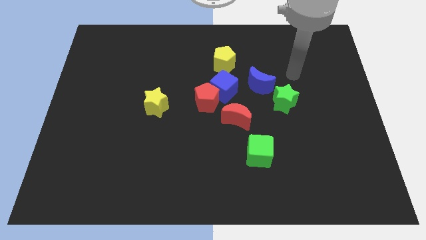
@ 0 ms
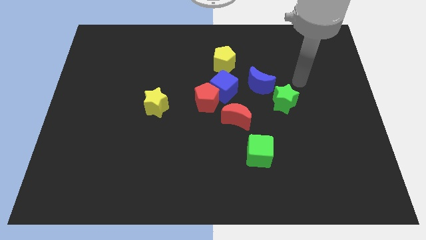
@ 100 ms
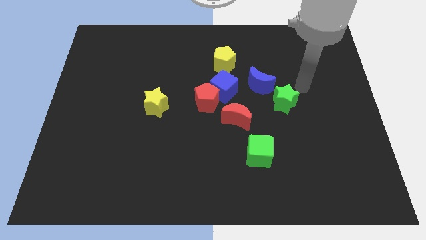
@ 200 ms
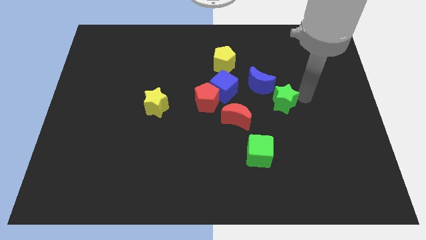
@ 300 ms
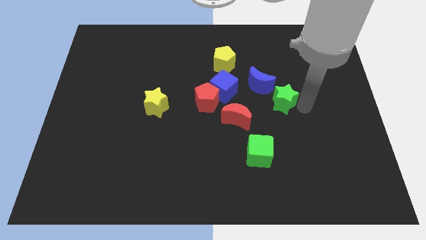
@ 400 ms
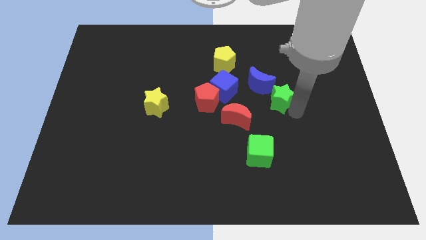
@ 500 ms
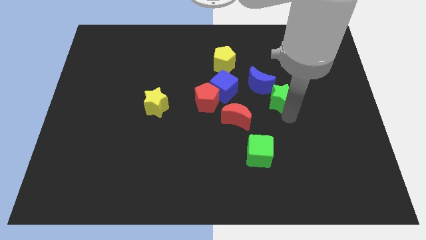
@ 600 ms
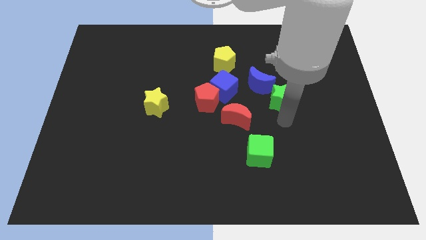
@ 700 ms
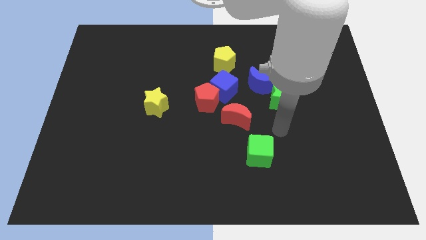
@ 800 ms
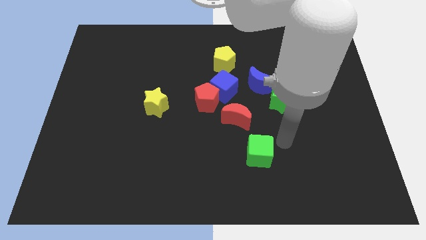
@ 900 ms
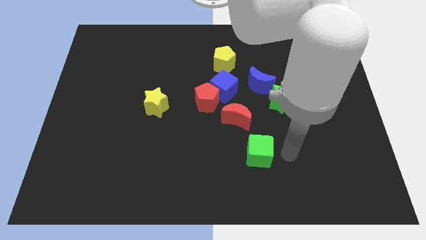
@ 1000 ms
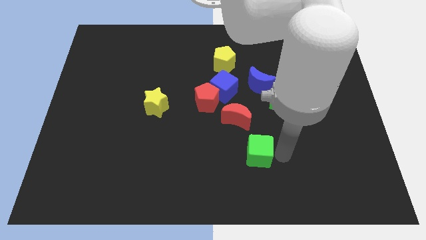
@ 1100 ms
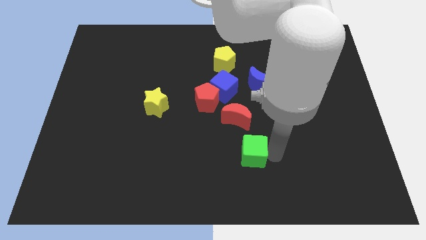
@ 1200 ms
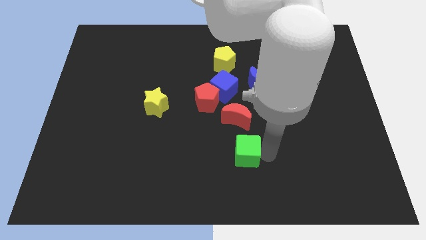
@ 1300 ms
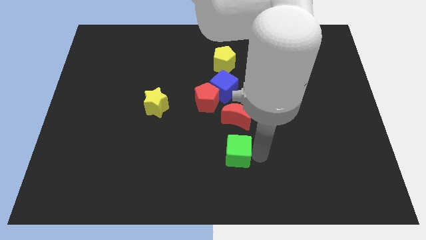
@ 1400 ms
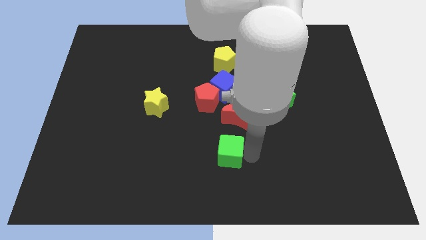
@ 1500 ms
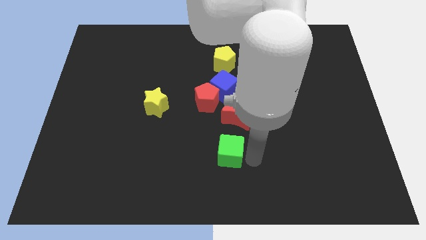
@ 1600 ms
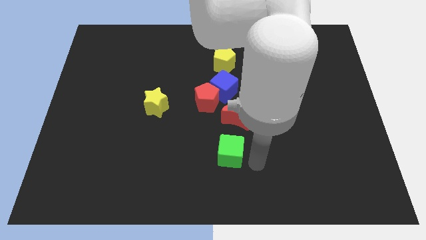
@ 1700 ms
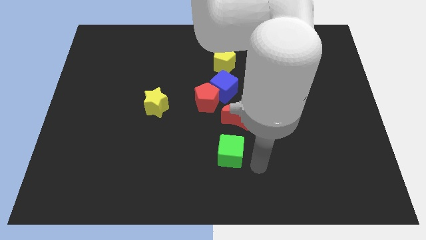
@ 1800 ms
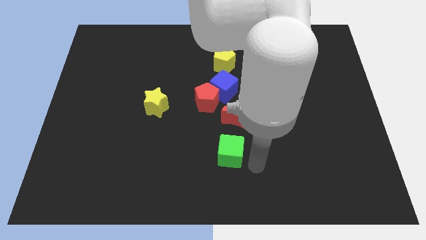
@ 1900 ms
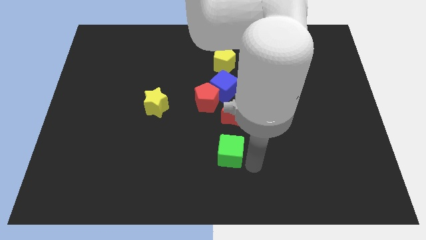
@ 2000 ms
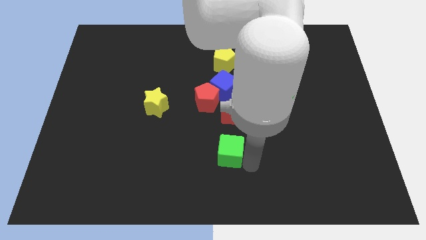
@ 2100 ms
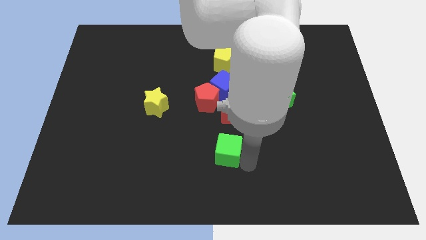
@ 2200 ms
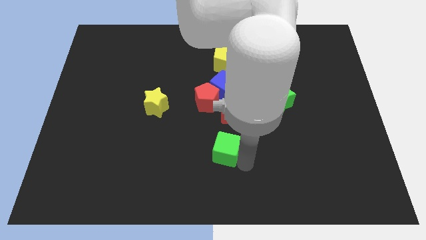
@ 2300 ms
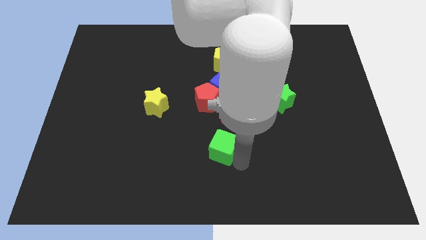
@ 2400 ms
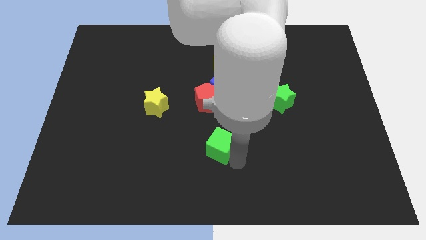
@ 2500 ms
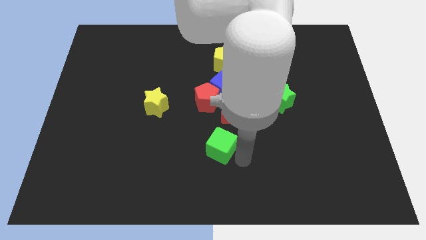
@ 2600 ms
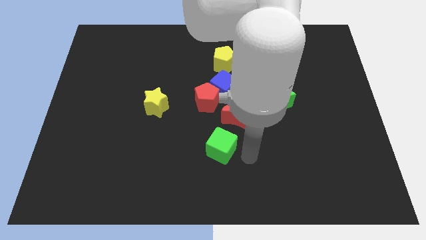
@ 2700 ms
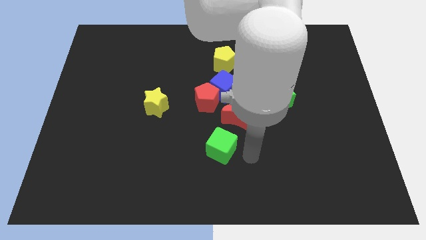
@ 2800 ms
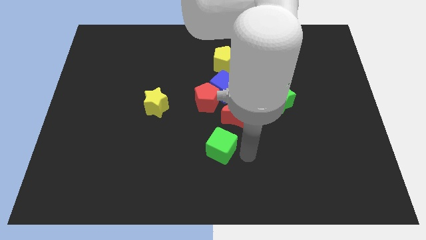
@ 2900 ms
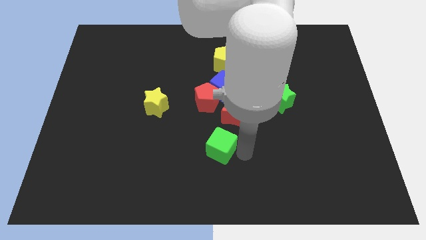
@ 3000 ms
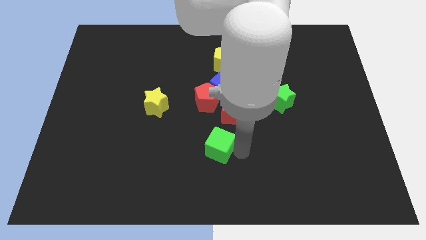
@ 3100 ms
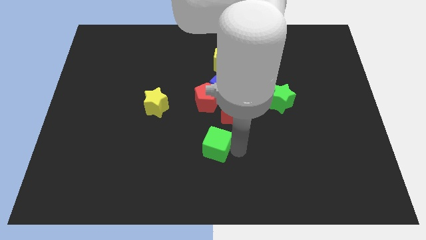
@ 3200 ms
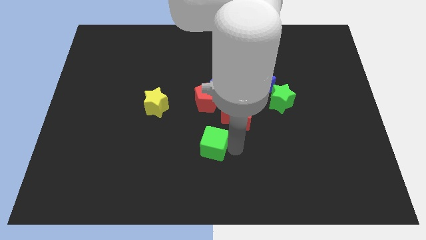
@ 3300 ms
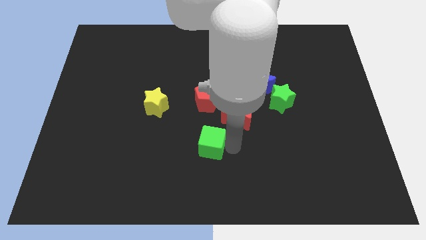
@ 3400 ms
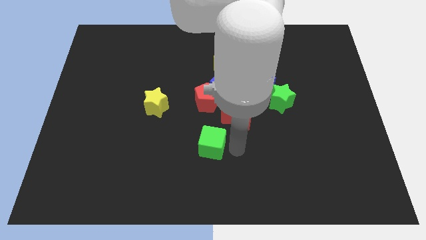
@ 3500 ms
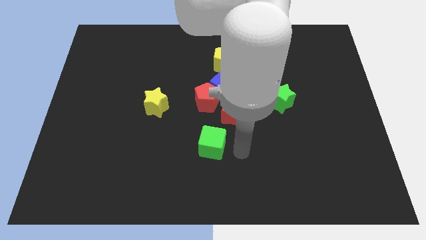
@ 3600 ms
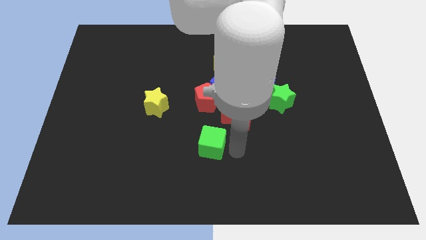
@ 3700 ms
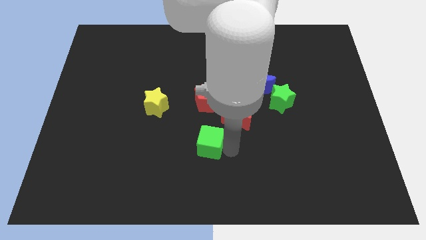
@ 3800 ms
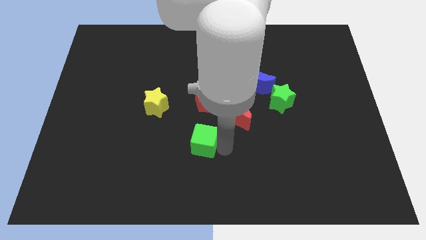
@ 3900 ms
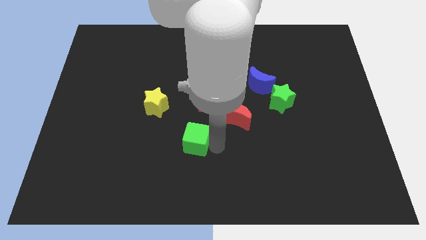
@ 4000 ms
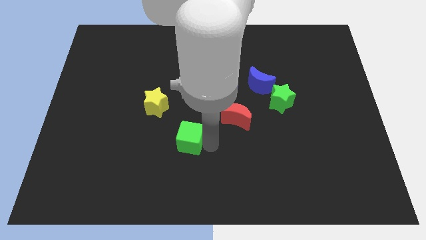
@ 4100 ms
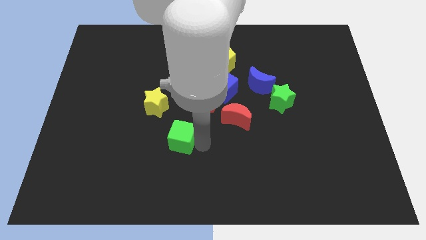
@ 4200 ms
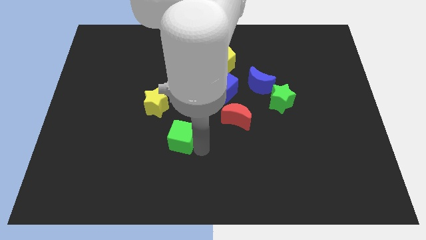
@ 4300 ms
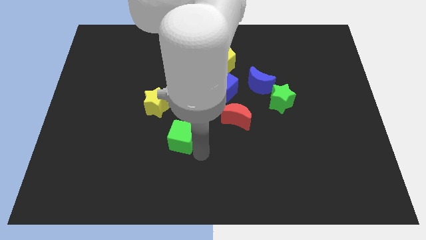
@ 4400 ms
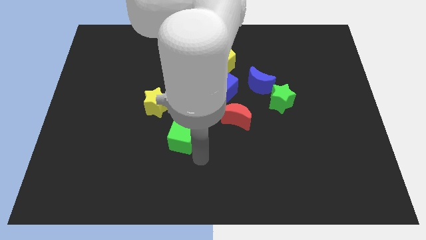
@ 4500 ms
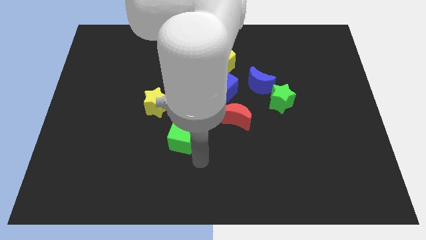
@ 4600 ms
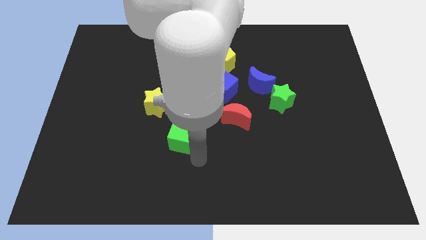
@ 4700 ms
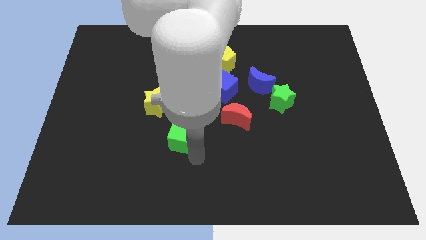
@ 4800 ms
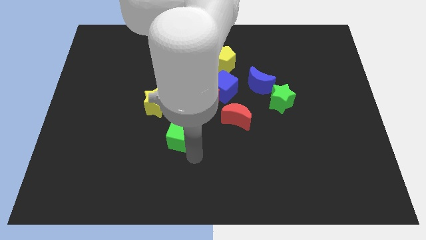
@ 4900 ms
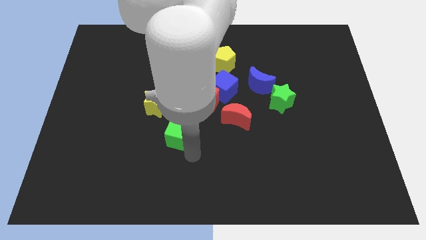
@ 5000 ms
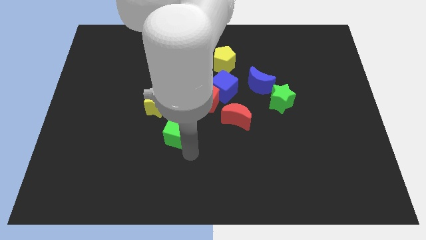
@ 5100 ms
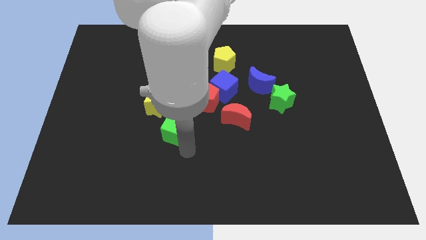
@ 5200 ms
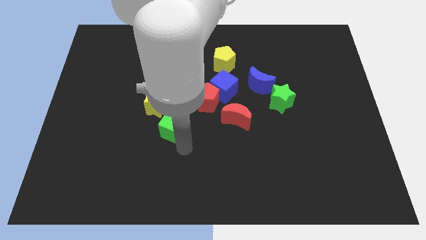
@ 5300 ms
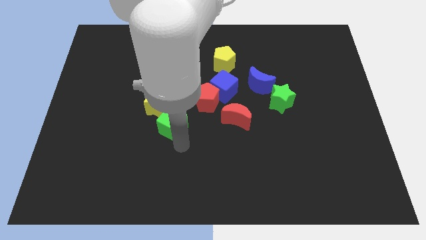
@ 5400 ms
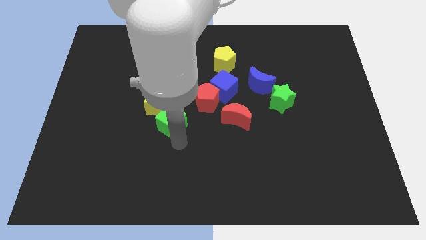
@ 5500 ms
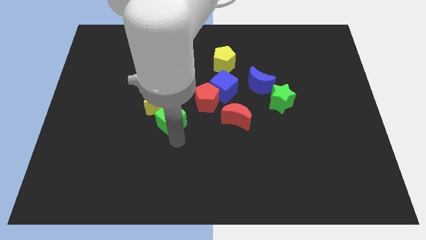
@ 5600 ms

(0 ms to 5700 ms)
push the green cube next to the yellow star

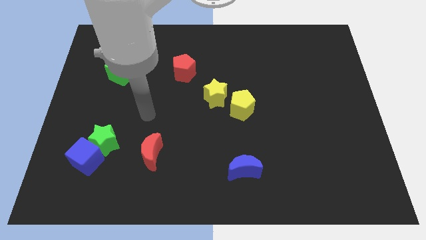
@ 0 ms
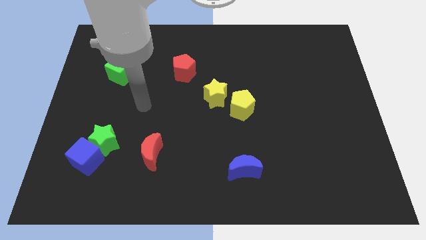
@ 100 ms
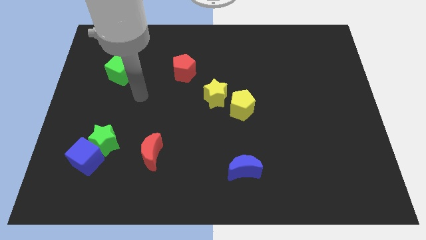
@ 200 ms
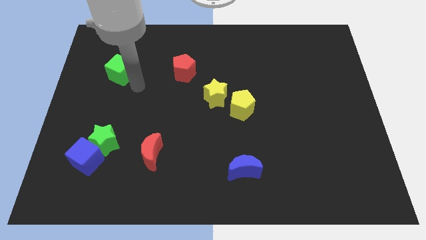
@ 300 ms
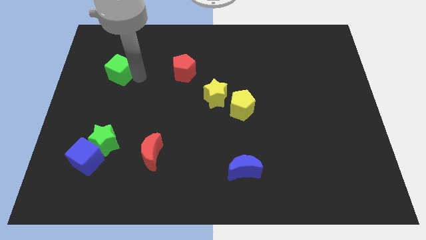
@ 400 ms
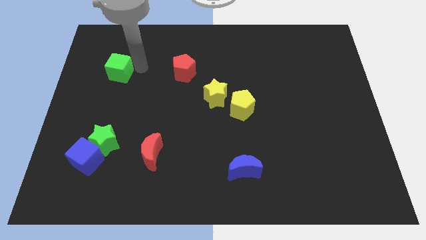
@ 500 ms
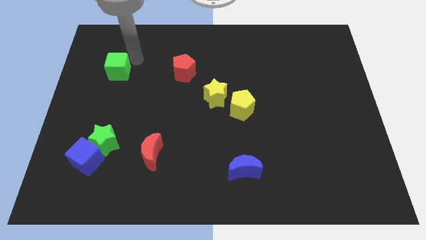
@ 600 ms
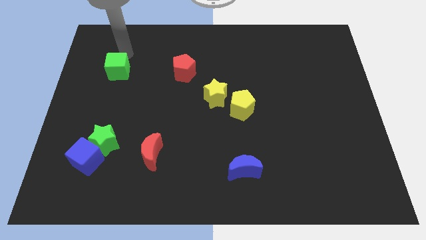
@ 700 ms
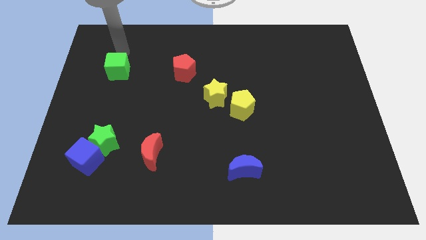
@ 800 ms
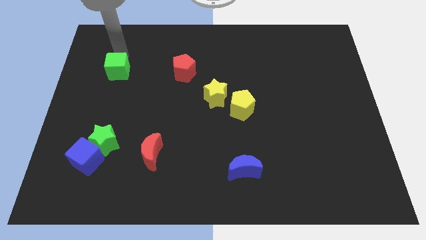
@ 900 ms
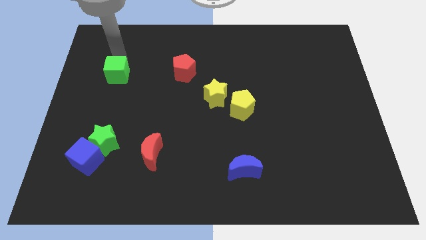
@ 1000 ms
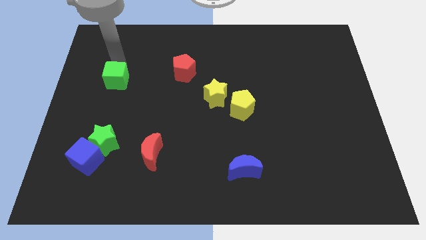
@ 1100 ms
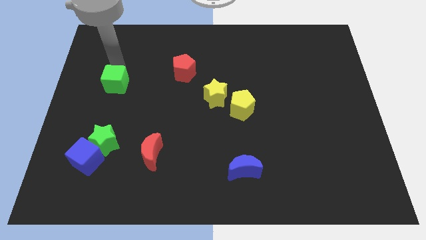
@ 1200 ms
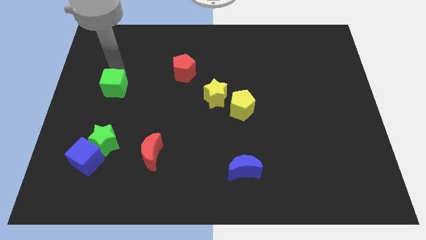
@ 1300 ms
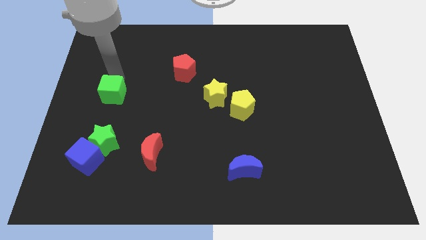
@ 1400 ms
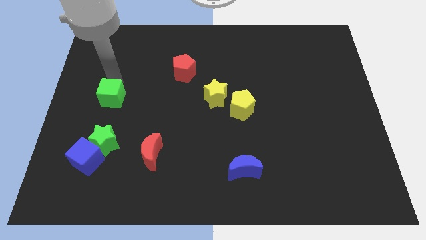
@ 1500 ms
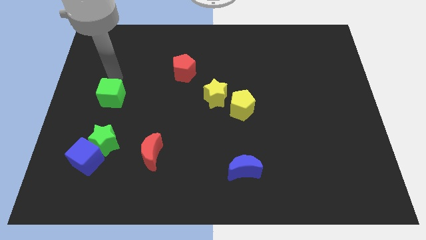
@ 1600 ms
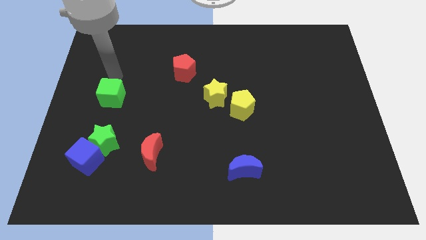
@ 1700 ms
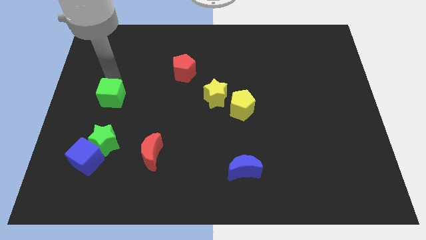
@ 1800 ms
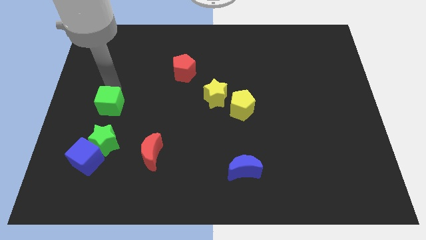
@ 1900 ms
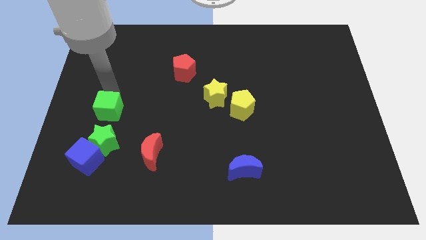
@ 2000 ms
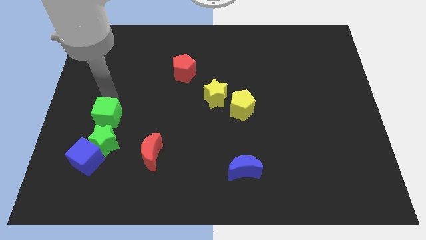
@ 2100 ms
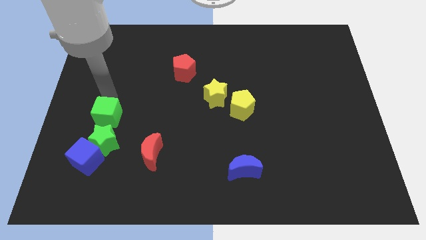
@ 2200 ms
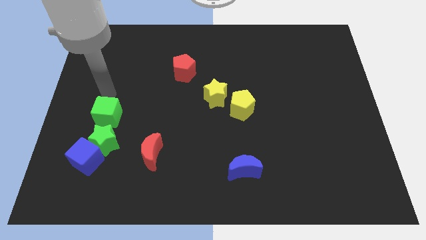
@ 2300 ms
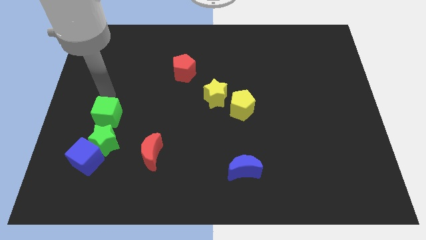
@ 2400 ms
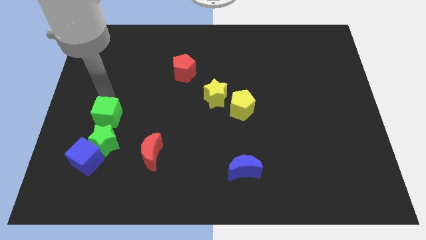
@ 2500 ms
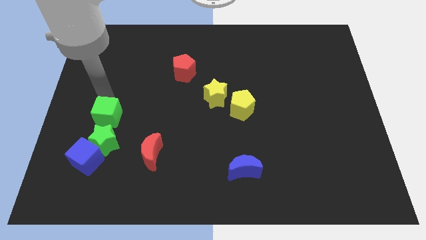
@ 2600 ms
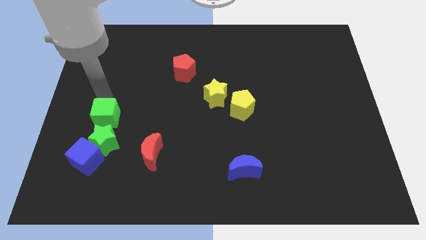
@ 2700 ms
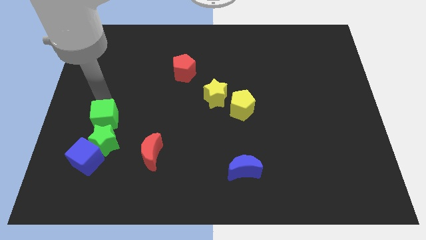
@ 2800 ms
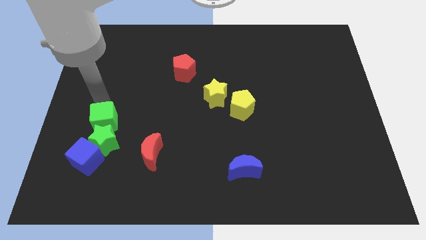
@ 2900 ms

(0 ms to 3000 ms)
move the green cube to the green star
